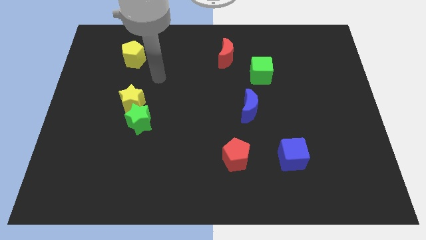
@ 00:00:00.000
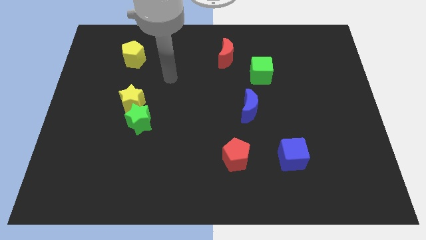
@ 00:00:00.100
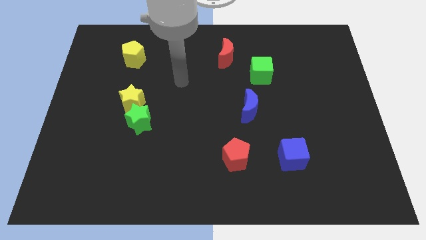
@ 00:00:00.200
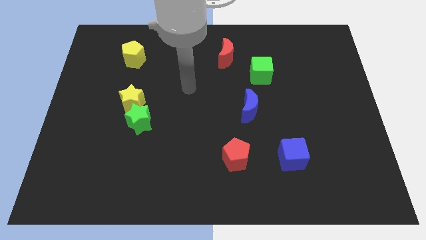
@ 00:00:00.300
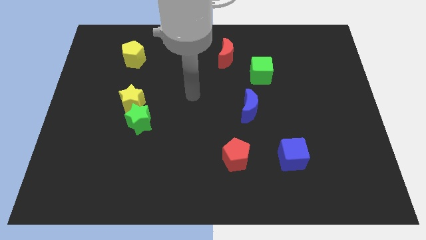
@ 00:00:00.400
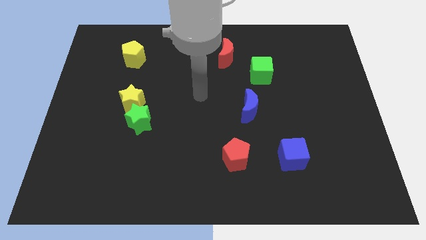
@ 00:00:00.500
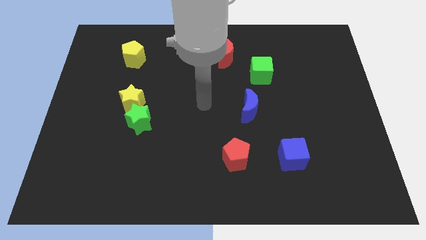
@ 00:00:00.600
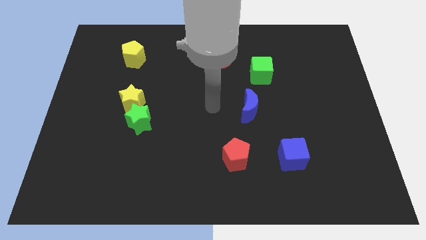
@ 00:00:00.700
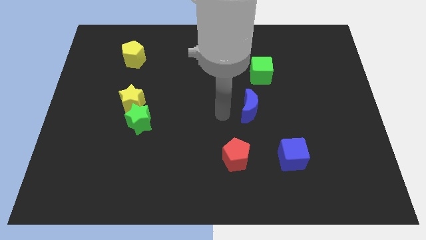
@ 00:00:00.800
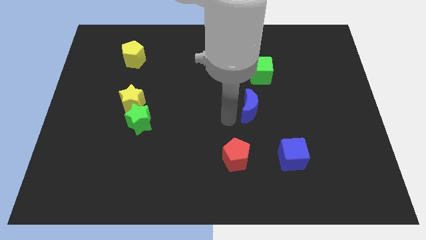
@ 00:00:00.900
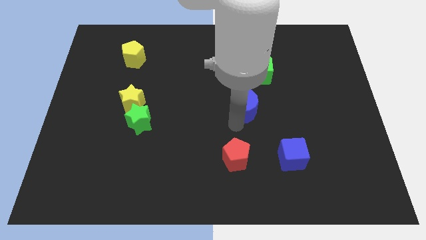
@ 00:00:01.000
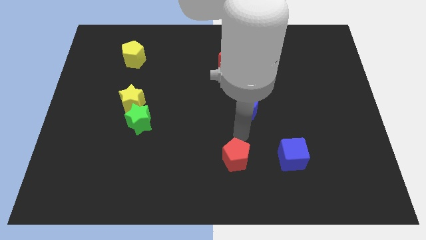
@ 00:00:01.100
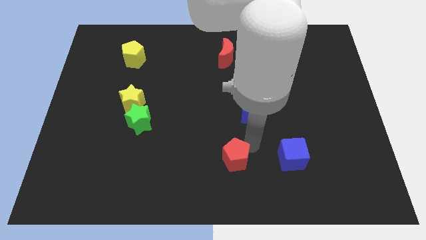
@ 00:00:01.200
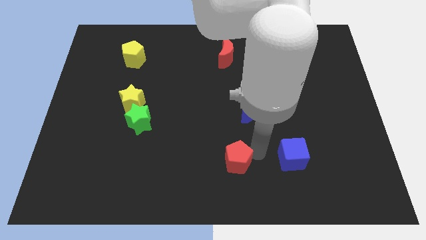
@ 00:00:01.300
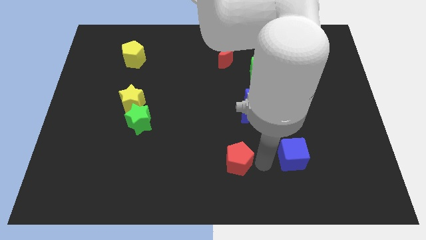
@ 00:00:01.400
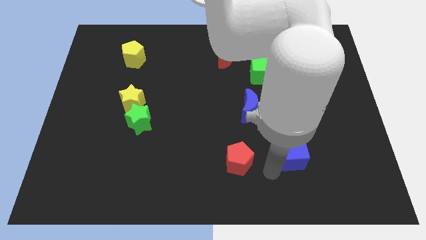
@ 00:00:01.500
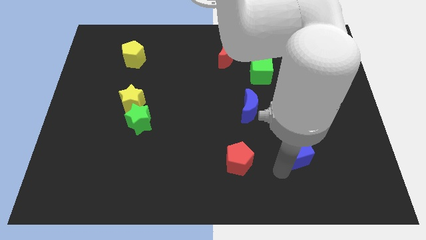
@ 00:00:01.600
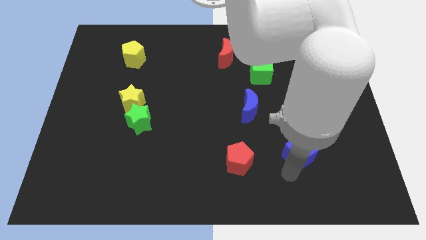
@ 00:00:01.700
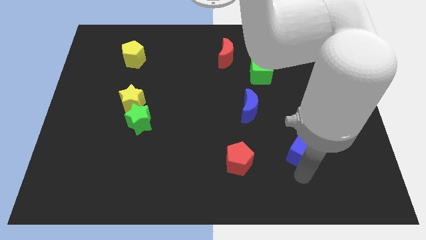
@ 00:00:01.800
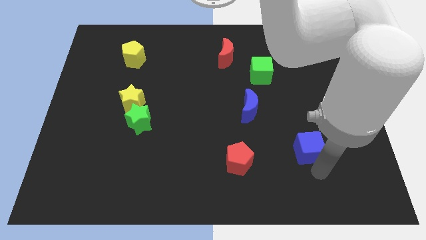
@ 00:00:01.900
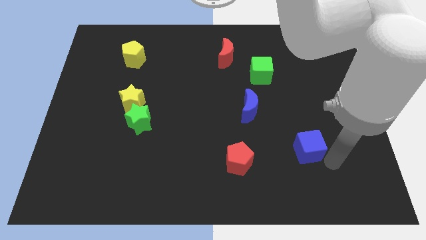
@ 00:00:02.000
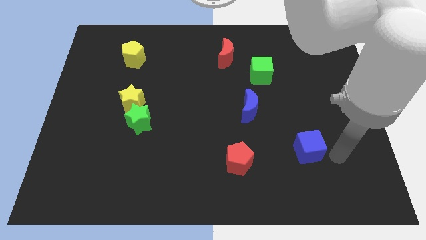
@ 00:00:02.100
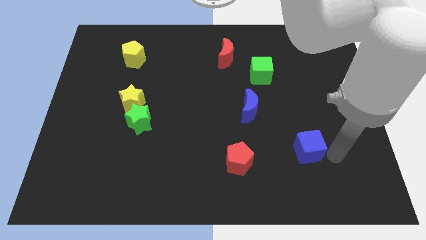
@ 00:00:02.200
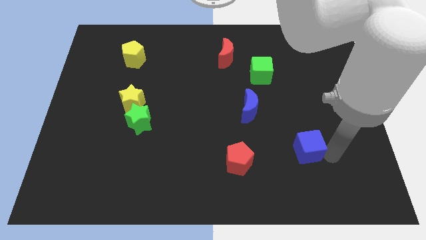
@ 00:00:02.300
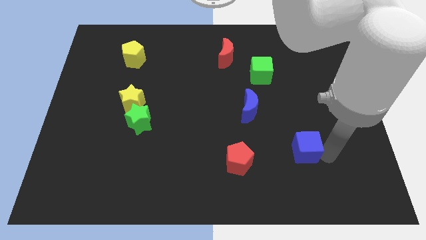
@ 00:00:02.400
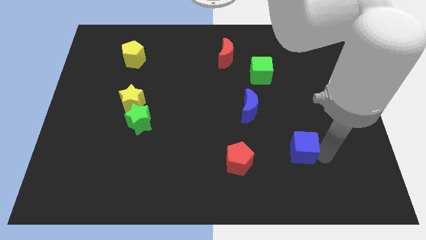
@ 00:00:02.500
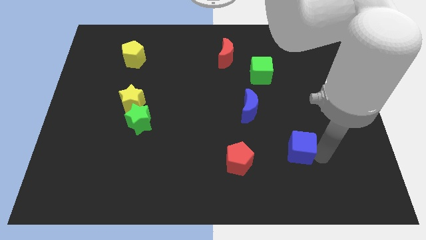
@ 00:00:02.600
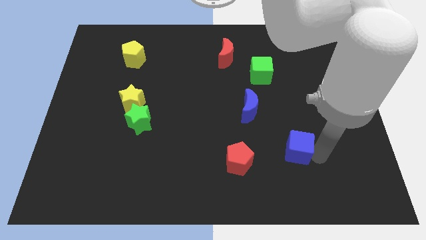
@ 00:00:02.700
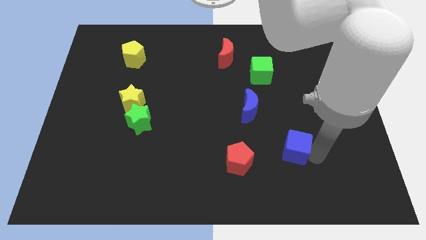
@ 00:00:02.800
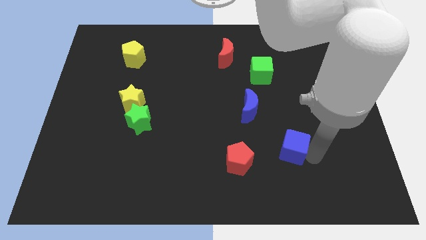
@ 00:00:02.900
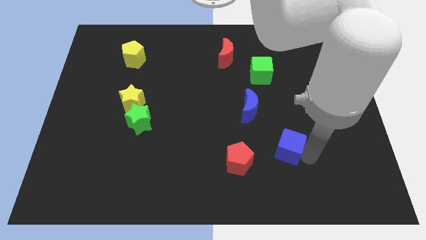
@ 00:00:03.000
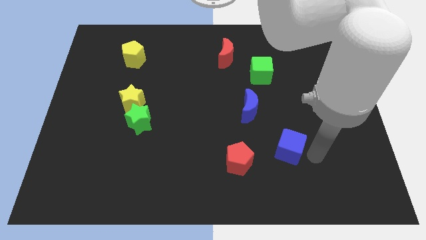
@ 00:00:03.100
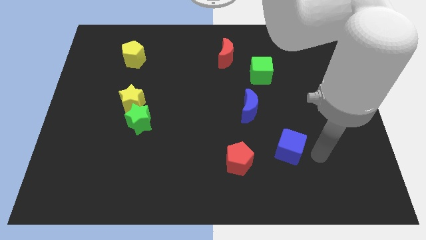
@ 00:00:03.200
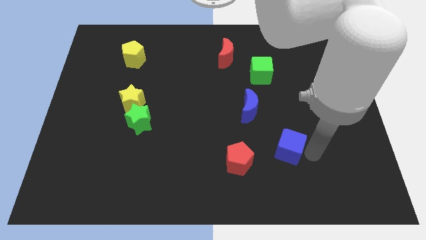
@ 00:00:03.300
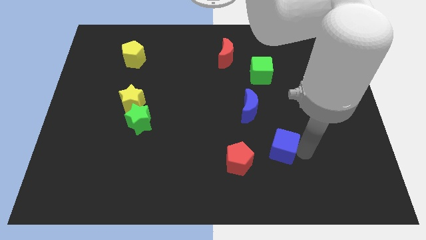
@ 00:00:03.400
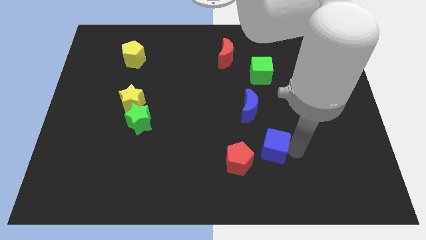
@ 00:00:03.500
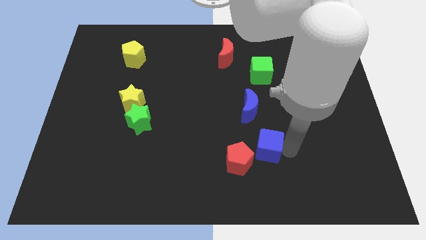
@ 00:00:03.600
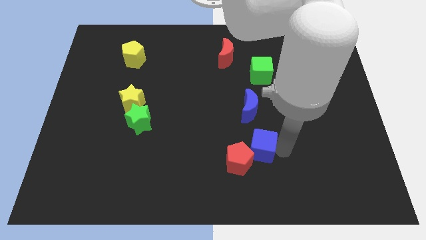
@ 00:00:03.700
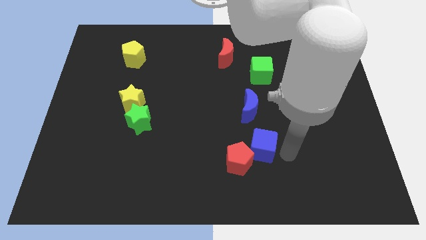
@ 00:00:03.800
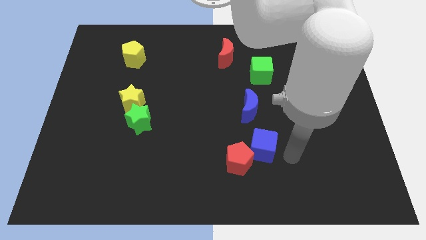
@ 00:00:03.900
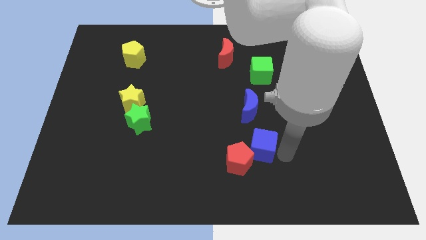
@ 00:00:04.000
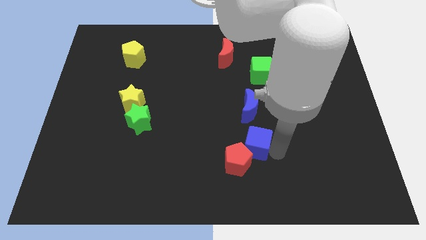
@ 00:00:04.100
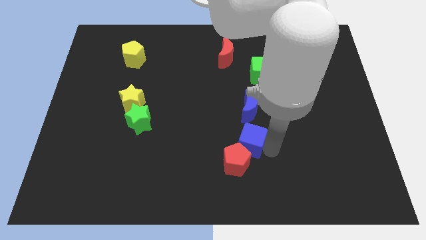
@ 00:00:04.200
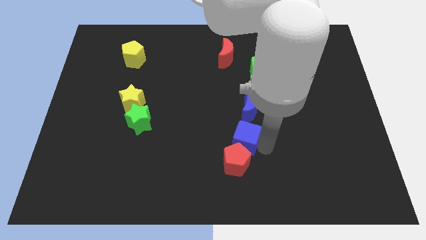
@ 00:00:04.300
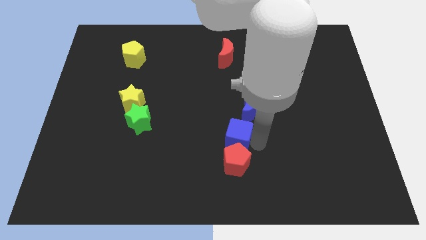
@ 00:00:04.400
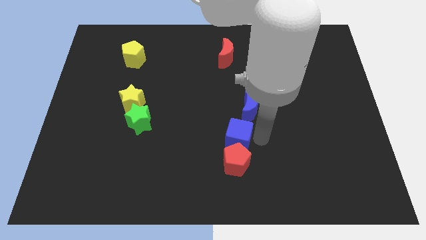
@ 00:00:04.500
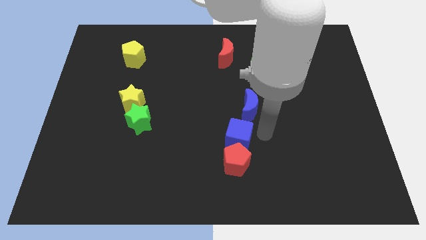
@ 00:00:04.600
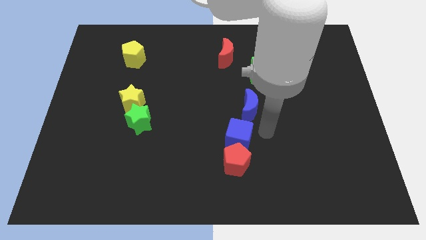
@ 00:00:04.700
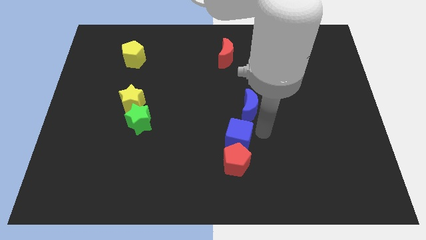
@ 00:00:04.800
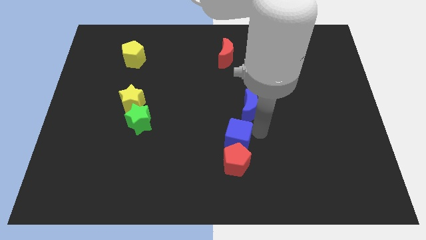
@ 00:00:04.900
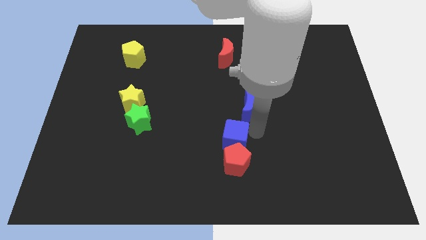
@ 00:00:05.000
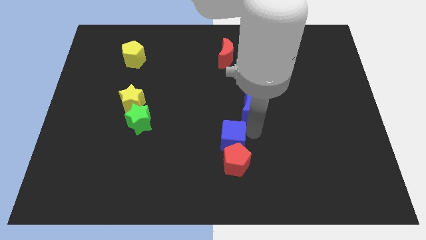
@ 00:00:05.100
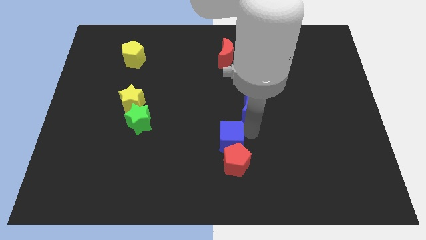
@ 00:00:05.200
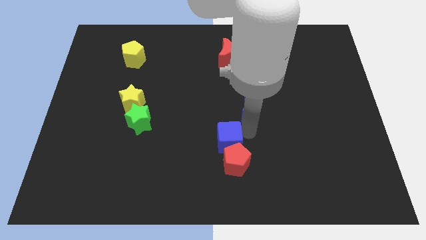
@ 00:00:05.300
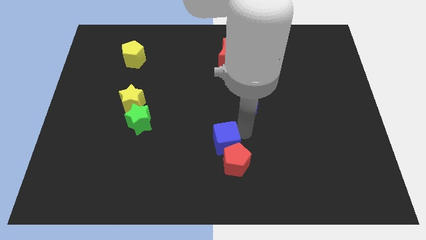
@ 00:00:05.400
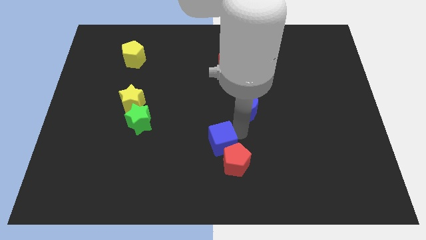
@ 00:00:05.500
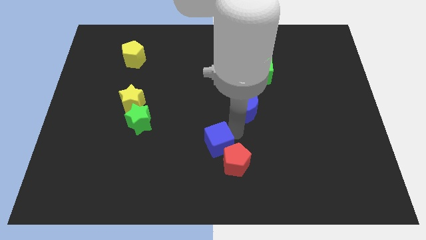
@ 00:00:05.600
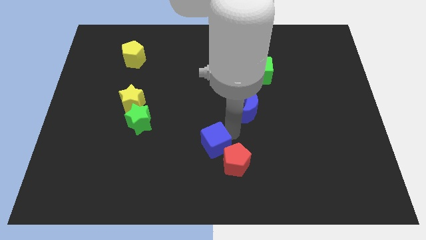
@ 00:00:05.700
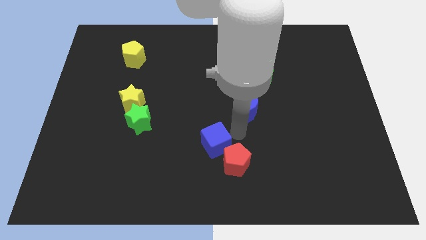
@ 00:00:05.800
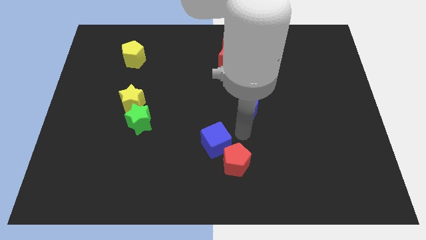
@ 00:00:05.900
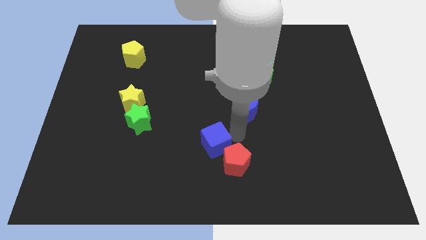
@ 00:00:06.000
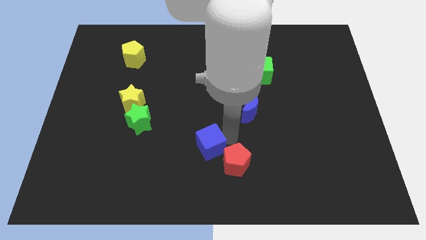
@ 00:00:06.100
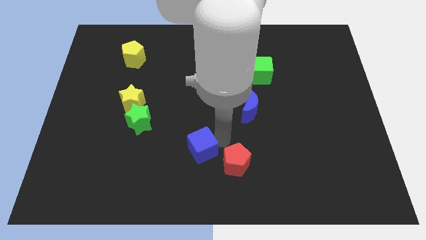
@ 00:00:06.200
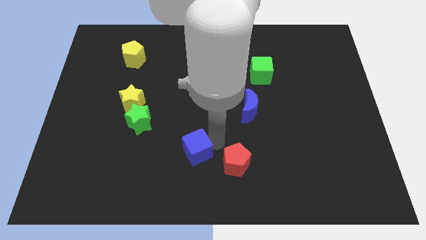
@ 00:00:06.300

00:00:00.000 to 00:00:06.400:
push the blue cube left

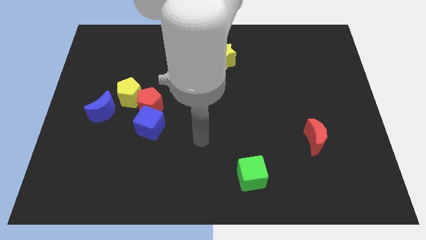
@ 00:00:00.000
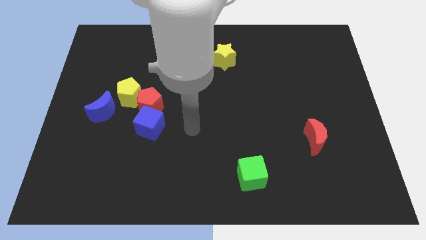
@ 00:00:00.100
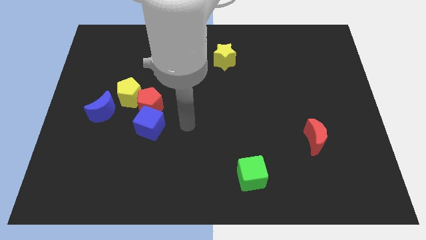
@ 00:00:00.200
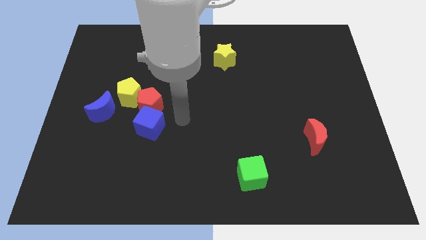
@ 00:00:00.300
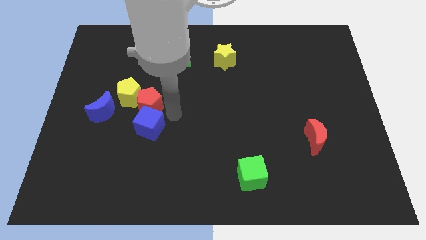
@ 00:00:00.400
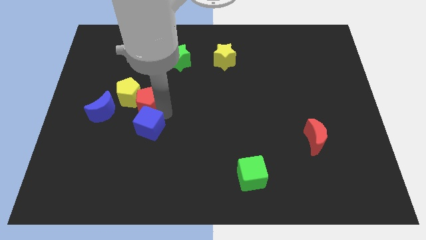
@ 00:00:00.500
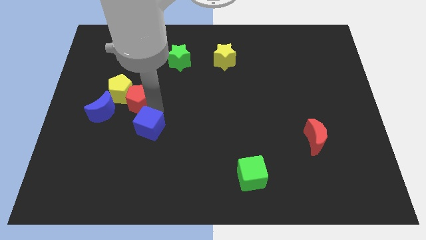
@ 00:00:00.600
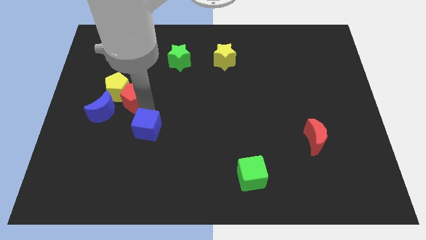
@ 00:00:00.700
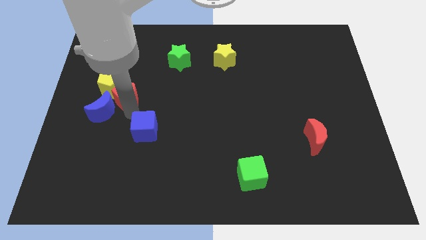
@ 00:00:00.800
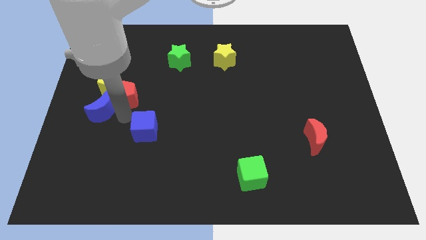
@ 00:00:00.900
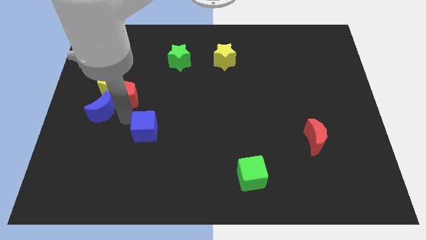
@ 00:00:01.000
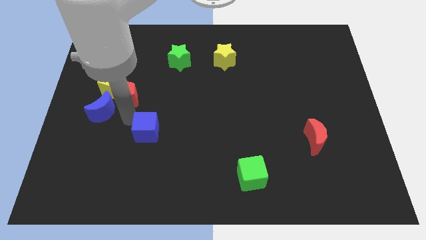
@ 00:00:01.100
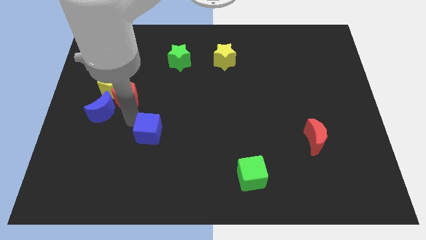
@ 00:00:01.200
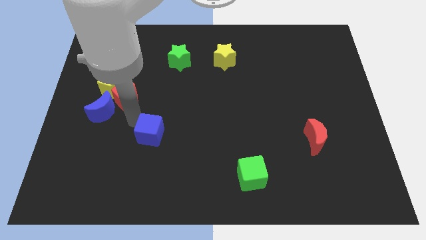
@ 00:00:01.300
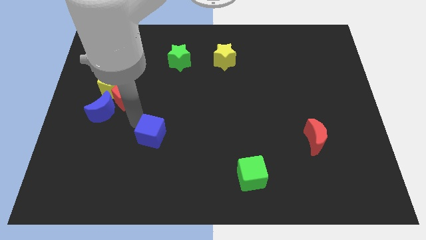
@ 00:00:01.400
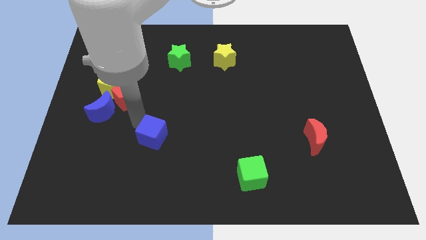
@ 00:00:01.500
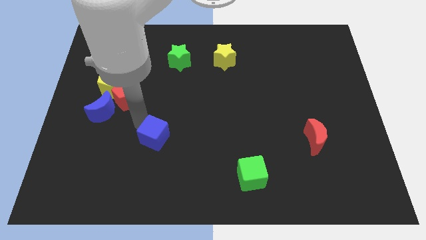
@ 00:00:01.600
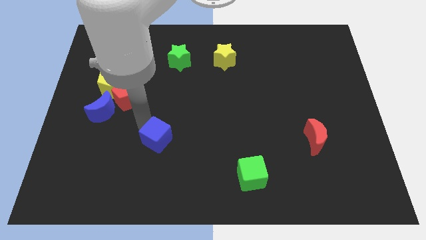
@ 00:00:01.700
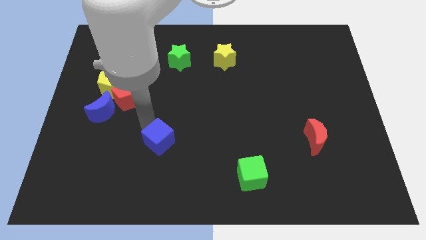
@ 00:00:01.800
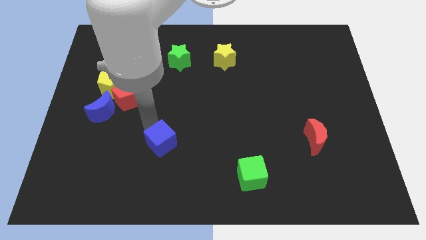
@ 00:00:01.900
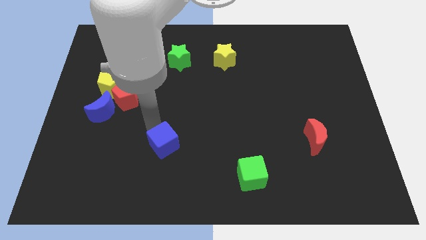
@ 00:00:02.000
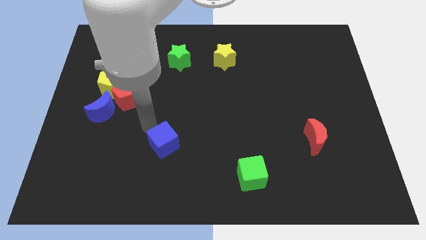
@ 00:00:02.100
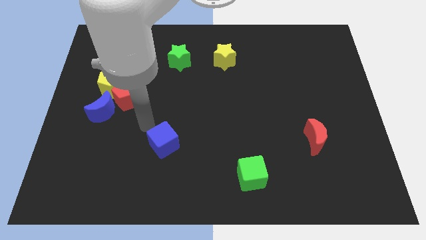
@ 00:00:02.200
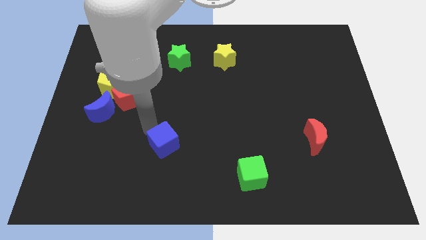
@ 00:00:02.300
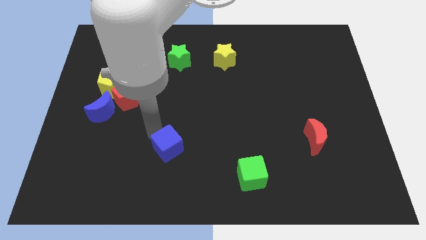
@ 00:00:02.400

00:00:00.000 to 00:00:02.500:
slightly push the blue cube downwards and to the right diagonally
